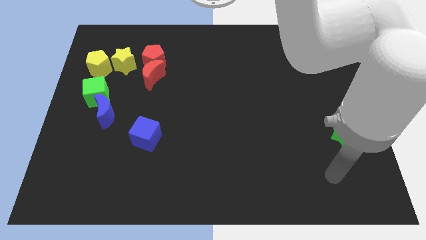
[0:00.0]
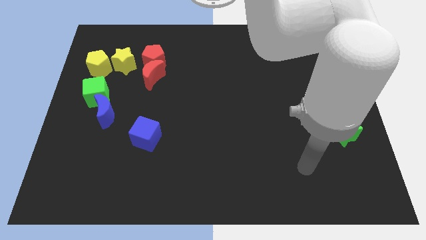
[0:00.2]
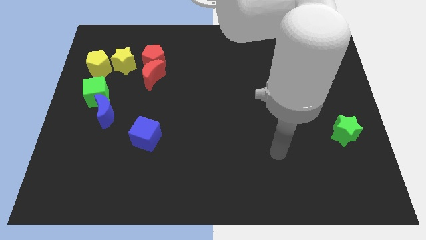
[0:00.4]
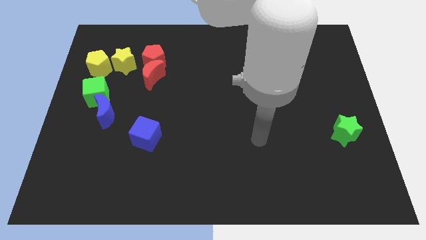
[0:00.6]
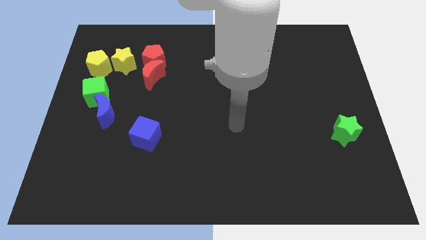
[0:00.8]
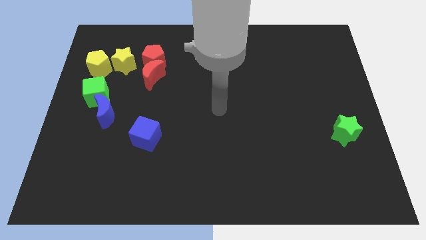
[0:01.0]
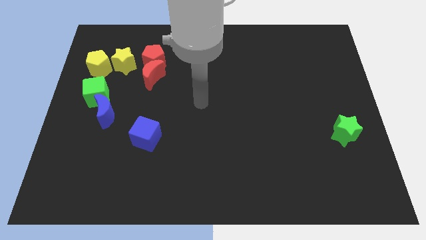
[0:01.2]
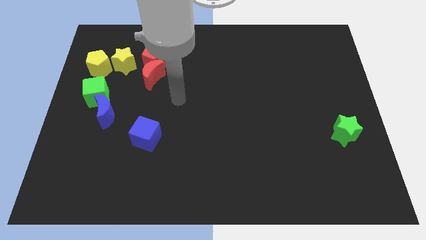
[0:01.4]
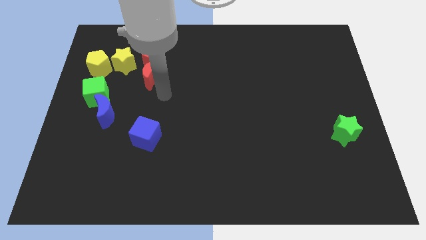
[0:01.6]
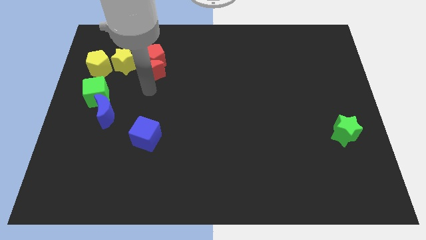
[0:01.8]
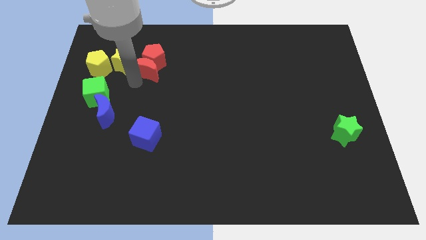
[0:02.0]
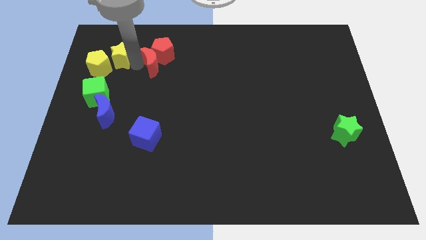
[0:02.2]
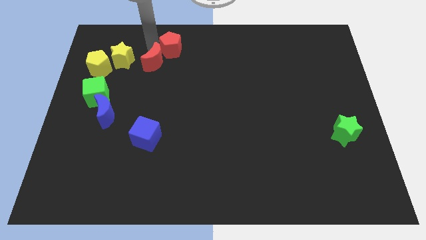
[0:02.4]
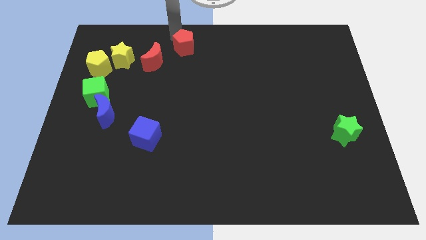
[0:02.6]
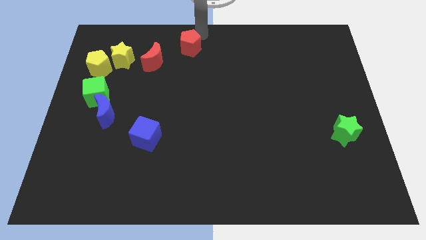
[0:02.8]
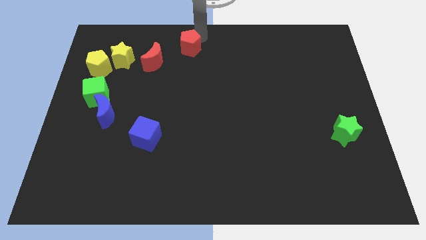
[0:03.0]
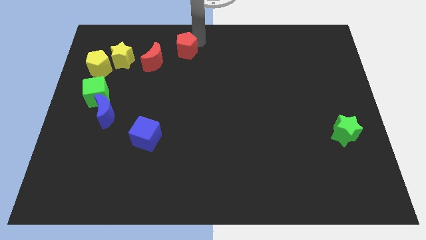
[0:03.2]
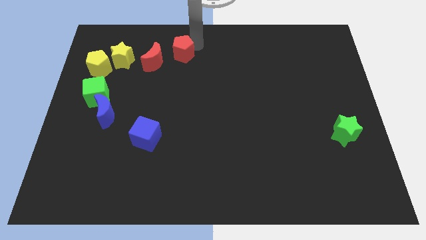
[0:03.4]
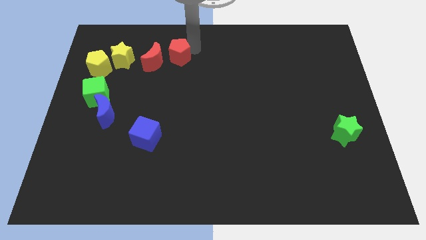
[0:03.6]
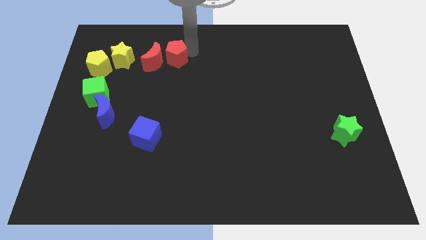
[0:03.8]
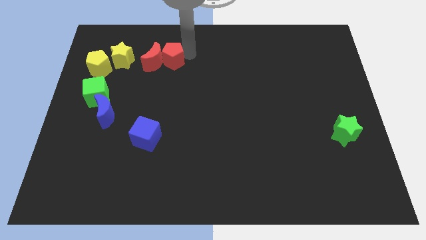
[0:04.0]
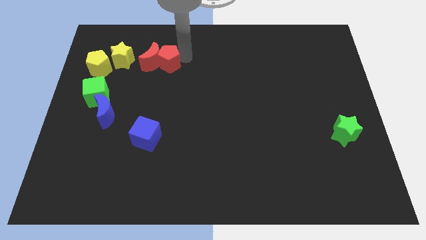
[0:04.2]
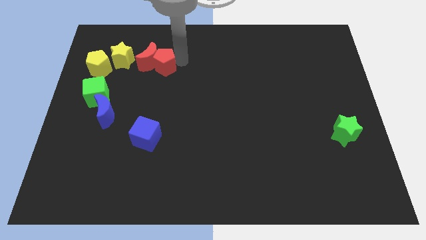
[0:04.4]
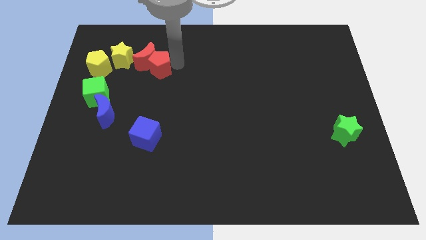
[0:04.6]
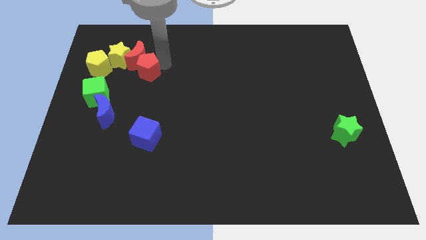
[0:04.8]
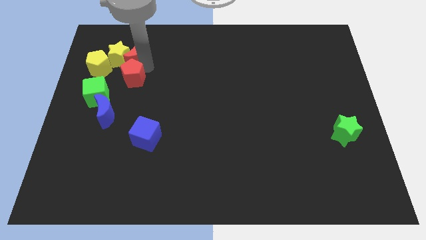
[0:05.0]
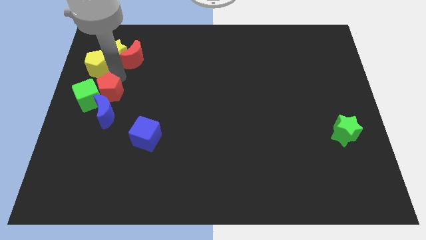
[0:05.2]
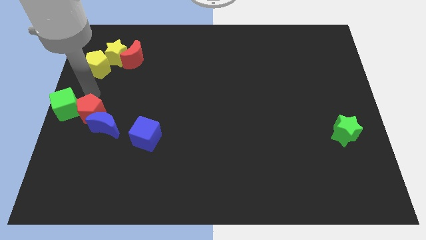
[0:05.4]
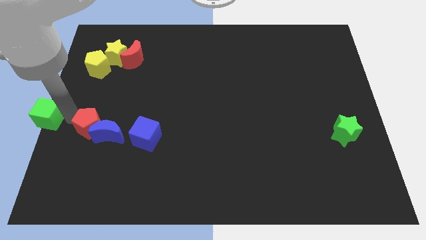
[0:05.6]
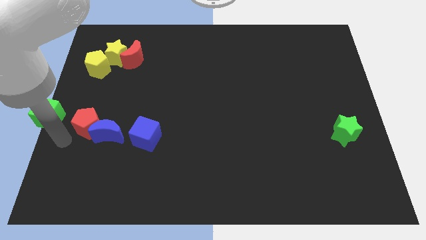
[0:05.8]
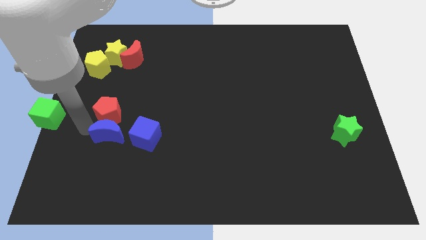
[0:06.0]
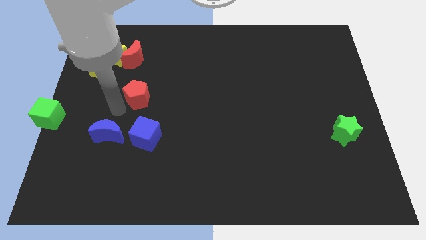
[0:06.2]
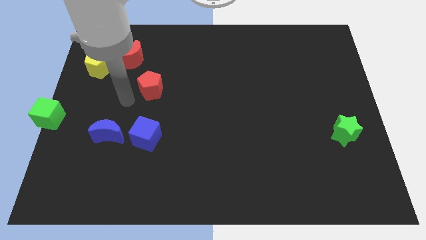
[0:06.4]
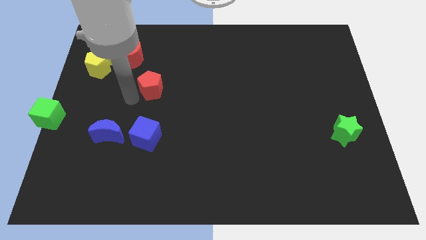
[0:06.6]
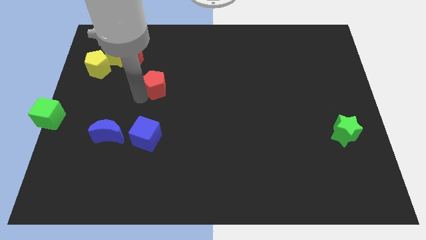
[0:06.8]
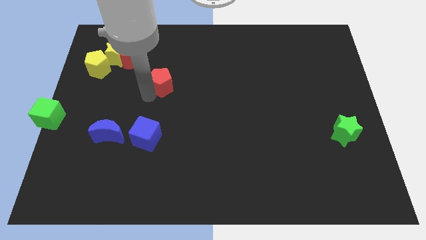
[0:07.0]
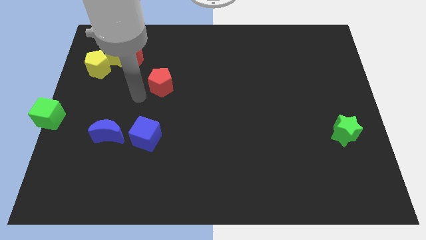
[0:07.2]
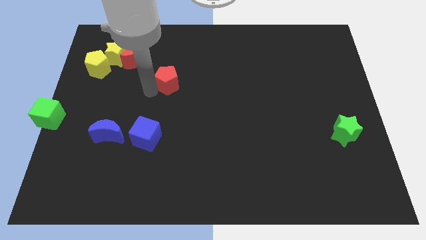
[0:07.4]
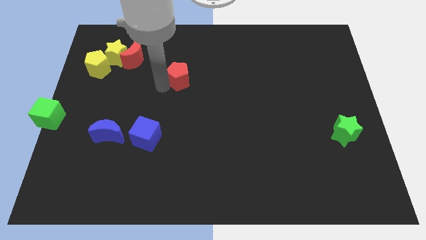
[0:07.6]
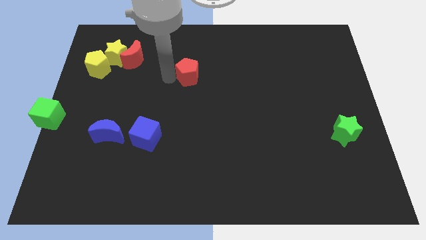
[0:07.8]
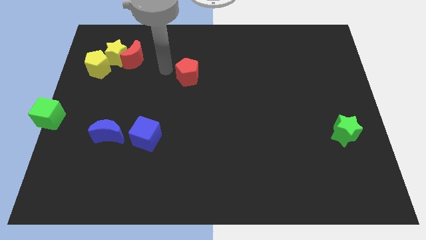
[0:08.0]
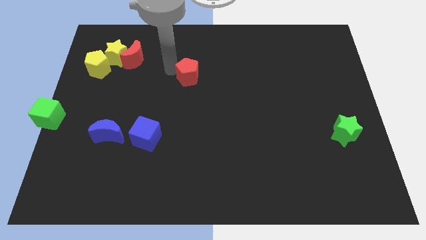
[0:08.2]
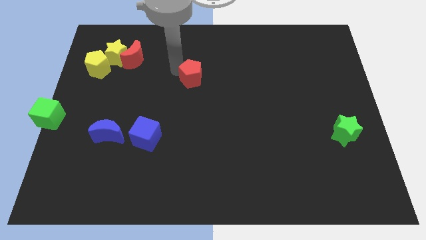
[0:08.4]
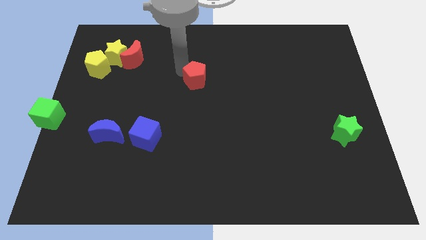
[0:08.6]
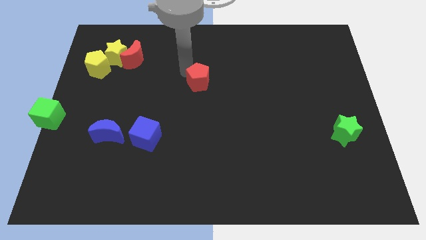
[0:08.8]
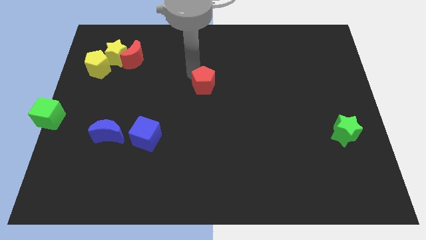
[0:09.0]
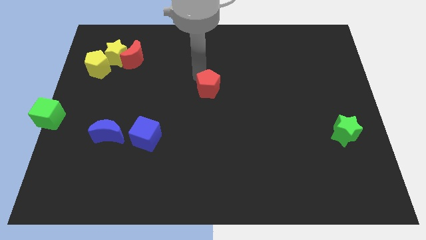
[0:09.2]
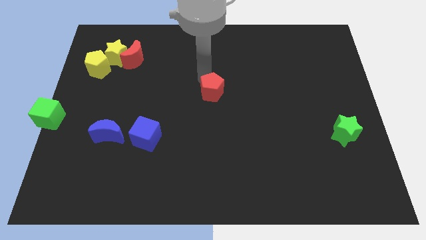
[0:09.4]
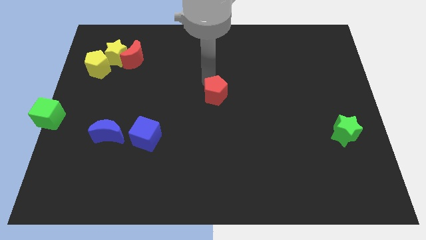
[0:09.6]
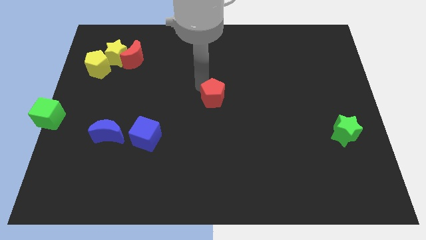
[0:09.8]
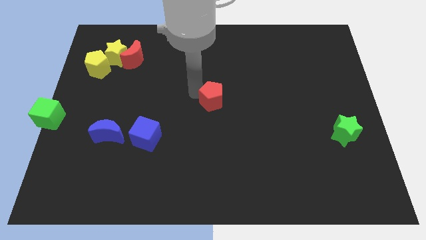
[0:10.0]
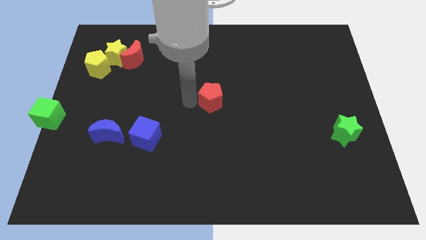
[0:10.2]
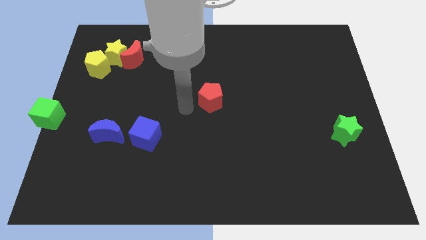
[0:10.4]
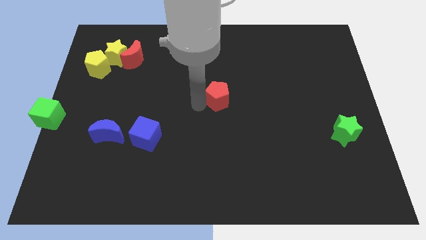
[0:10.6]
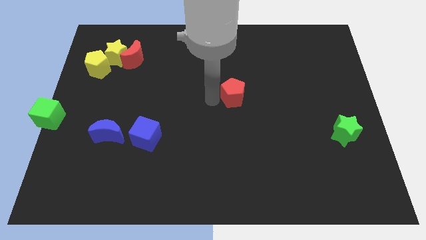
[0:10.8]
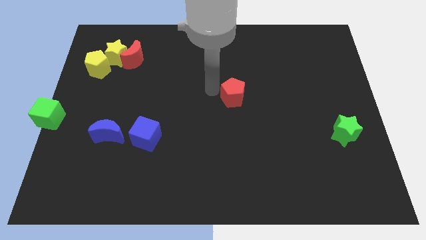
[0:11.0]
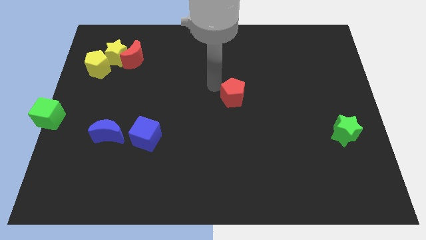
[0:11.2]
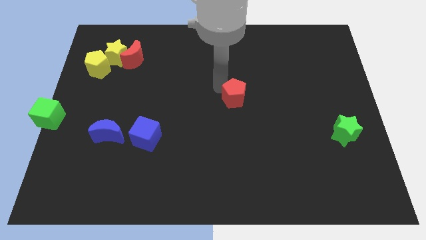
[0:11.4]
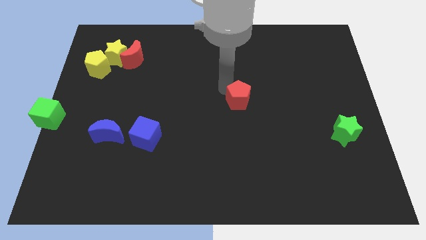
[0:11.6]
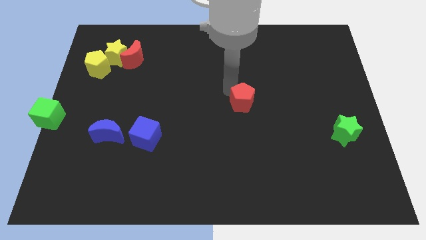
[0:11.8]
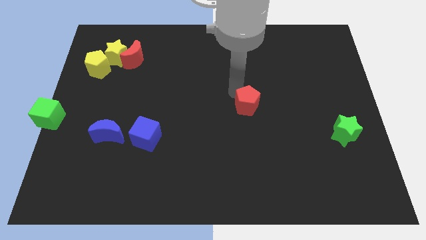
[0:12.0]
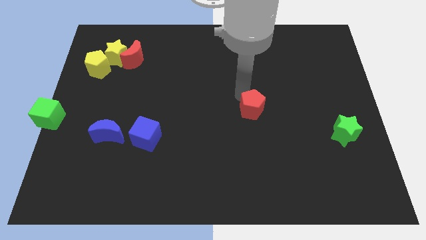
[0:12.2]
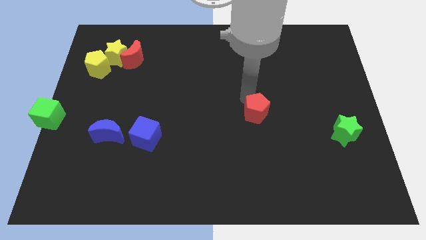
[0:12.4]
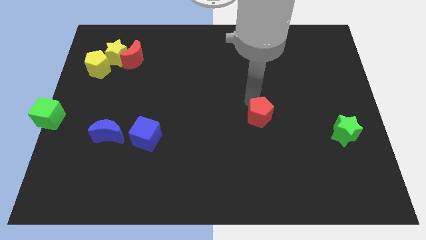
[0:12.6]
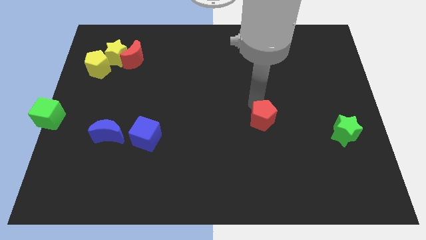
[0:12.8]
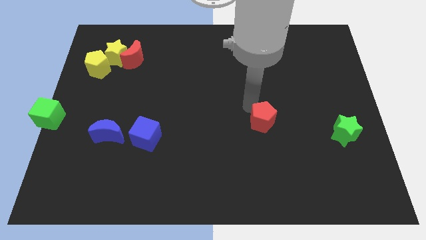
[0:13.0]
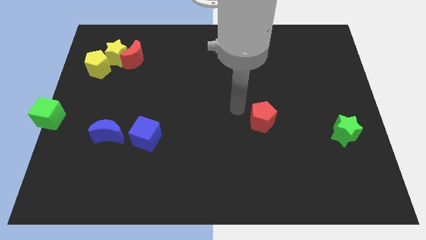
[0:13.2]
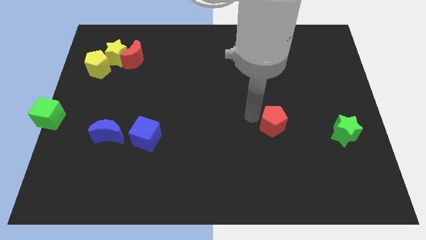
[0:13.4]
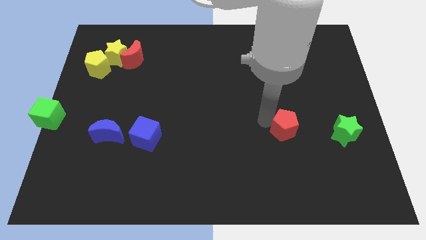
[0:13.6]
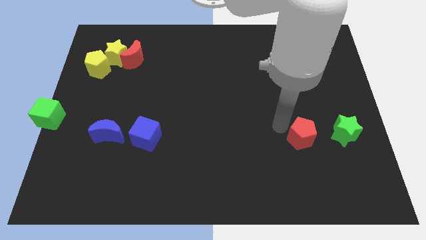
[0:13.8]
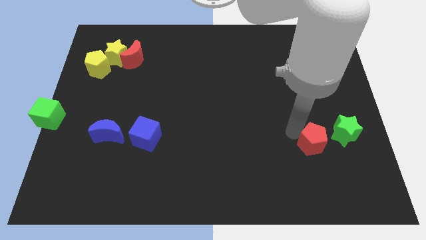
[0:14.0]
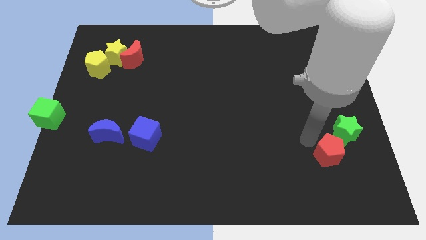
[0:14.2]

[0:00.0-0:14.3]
move the red pentagon below the green star
